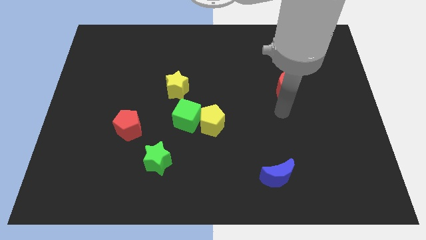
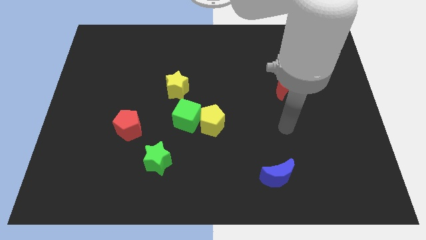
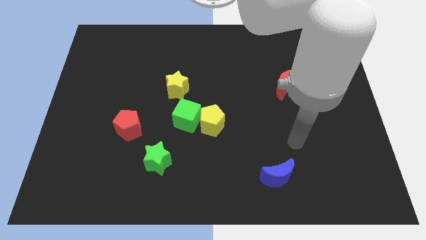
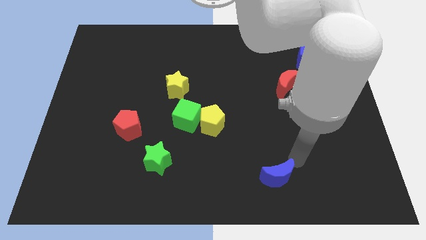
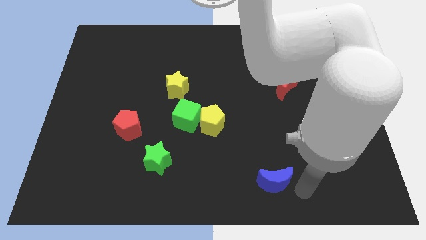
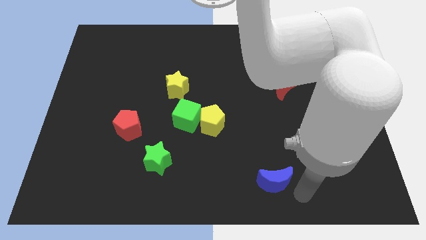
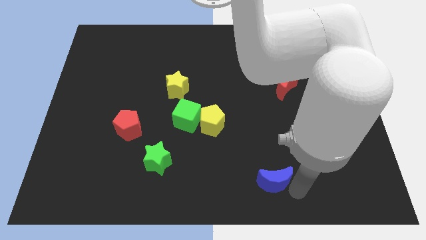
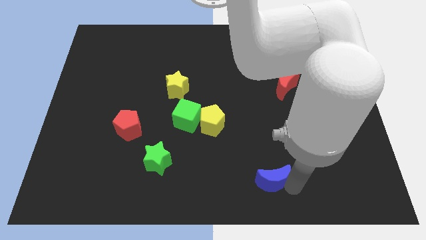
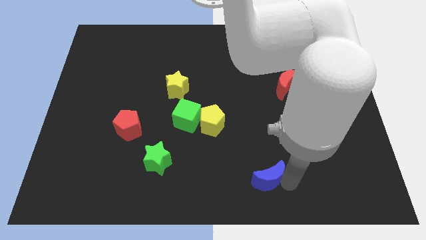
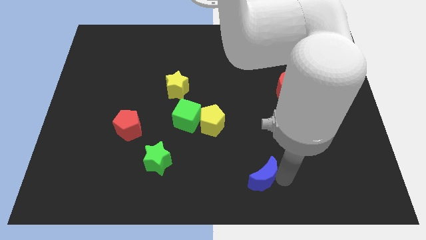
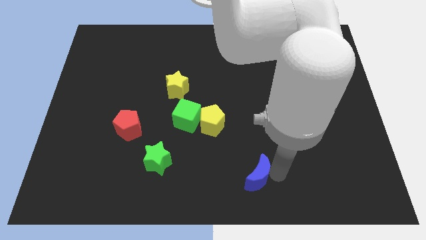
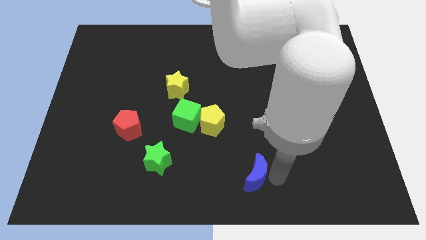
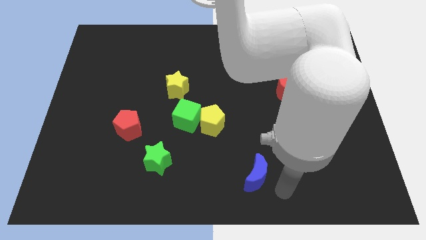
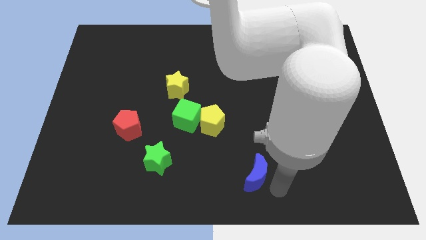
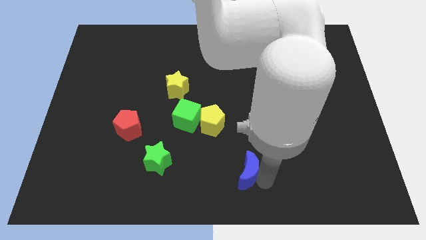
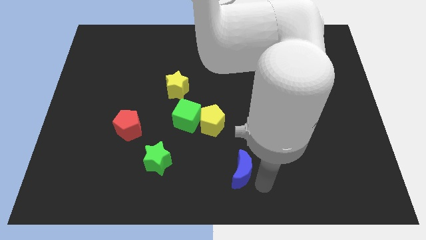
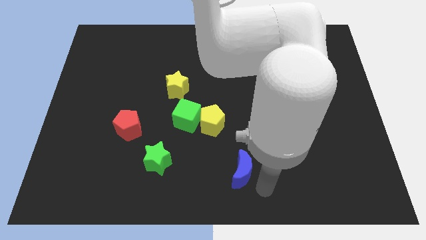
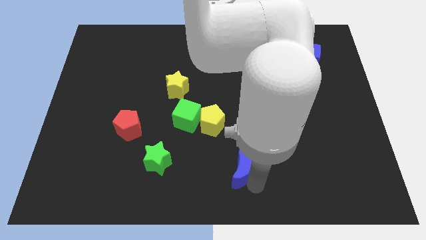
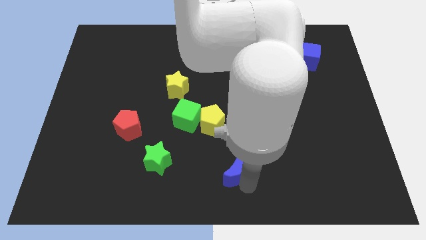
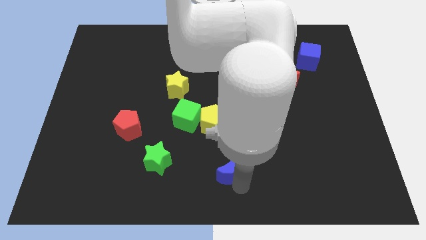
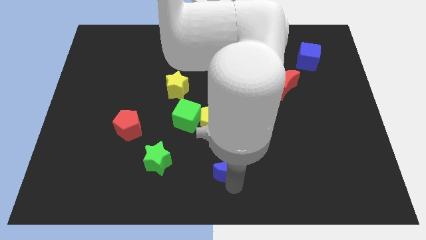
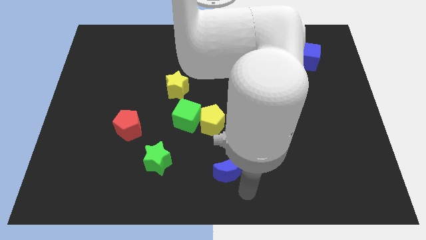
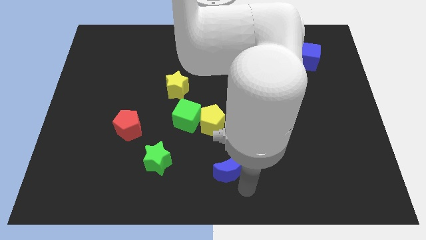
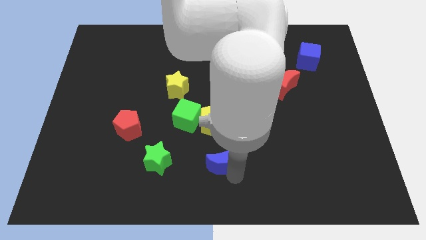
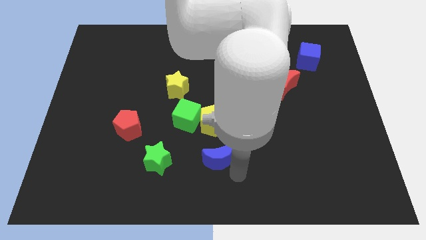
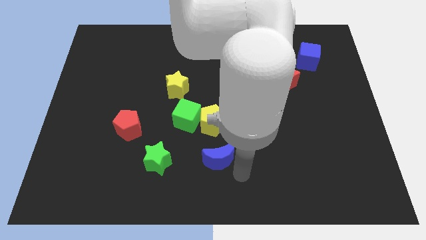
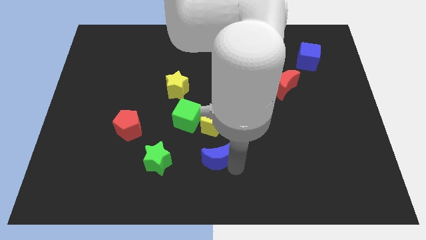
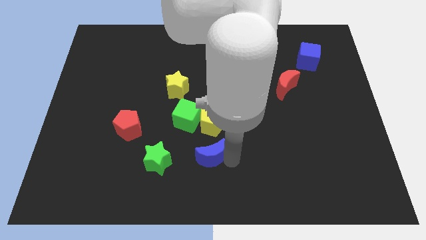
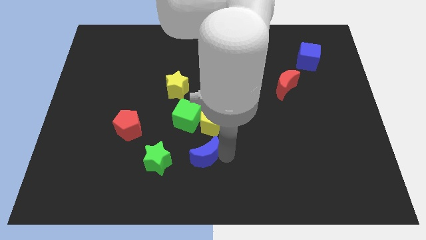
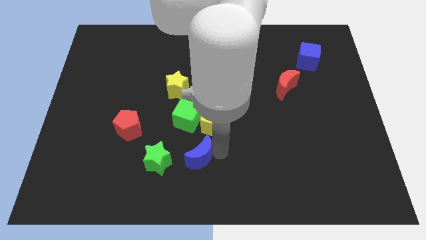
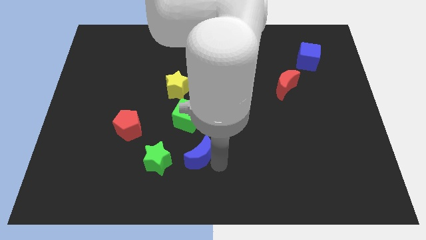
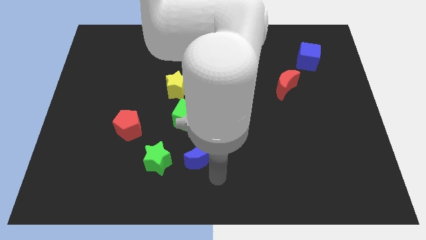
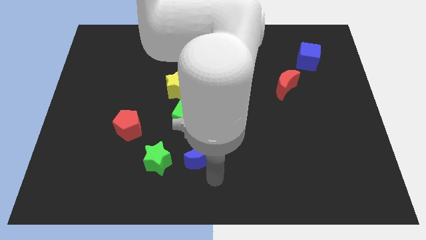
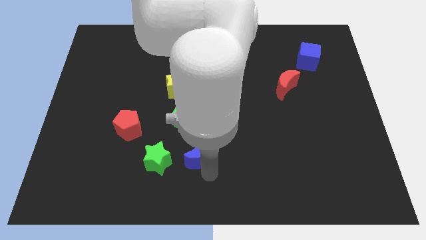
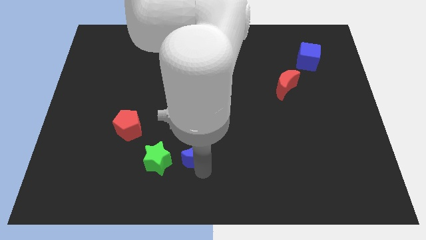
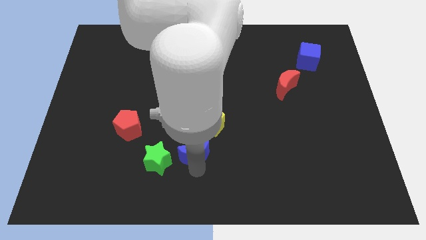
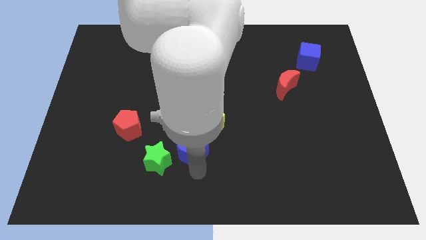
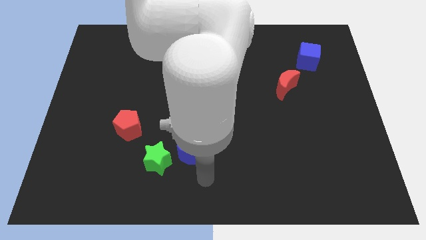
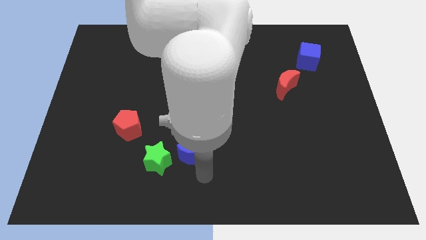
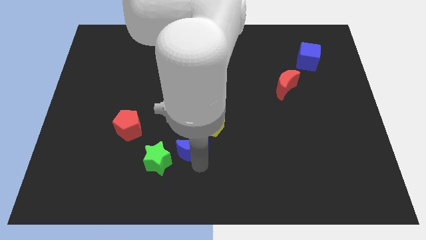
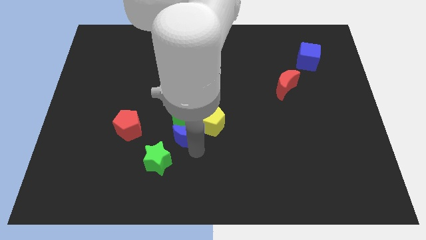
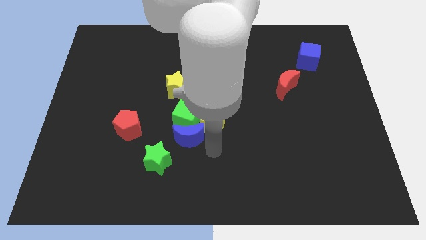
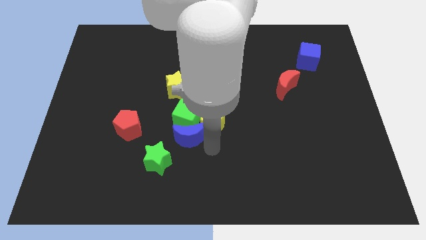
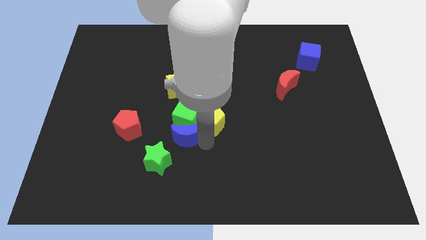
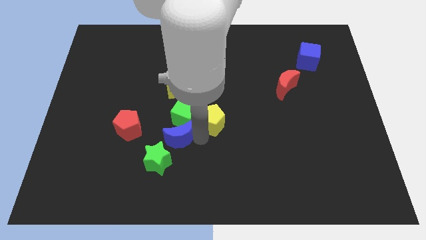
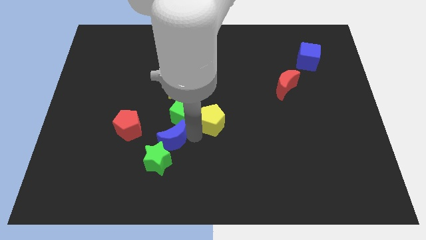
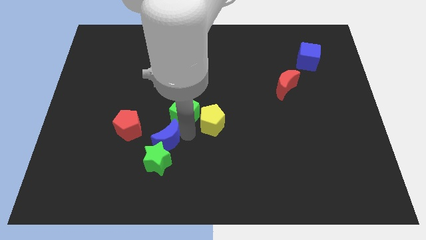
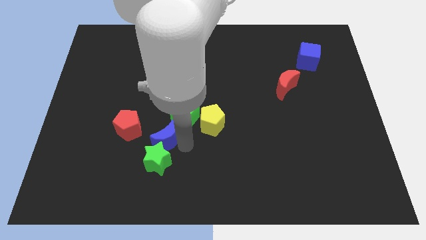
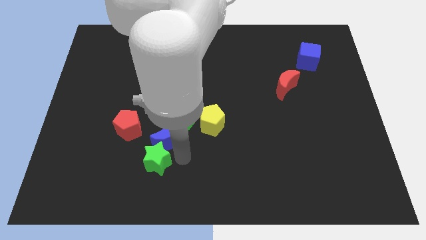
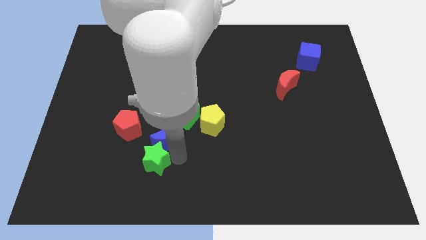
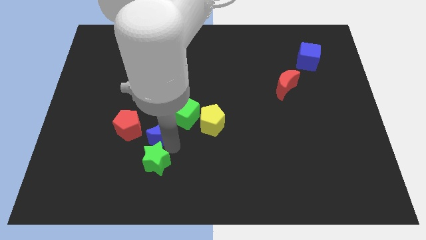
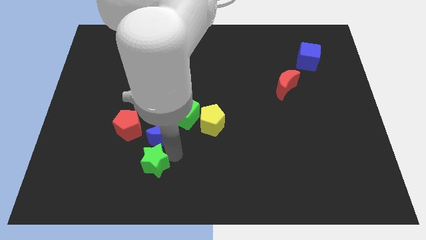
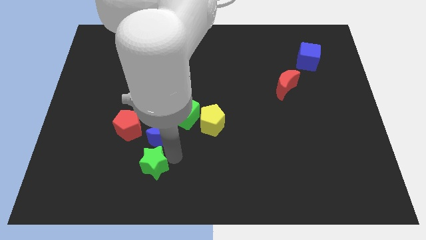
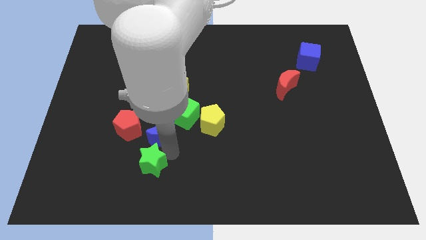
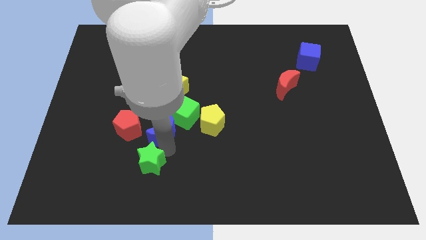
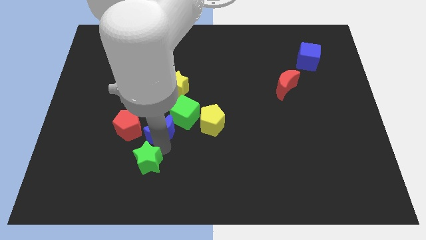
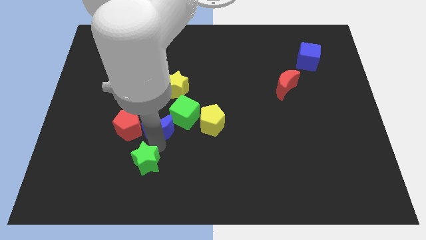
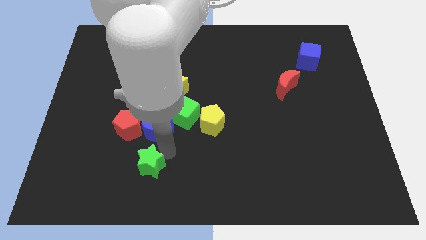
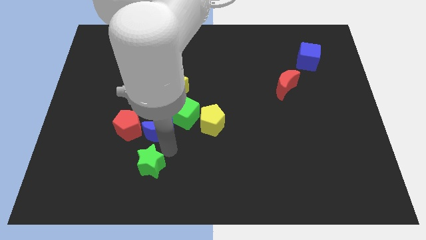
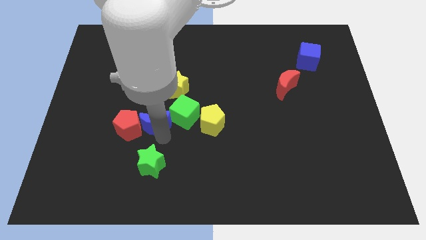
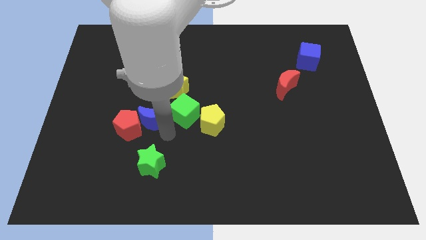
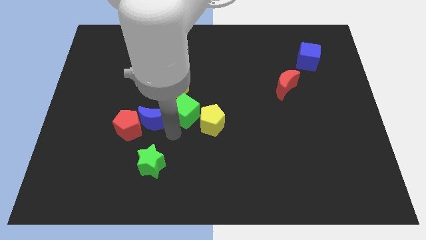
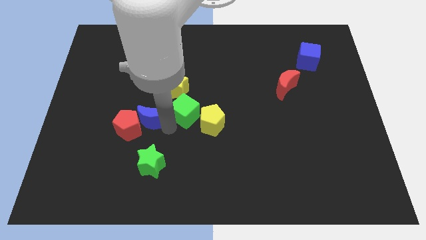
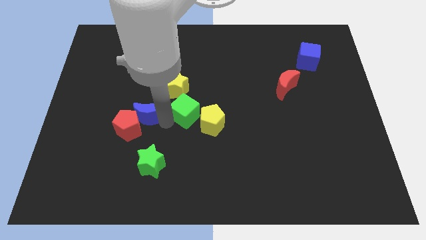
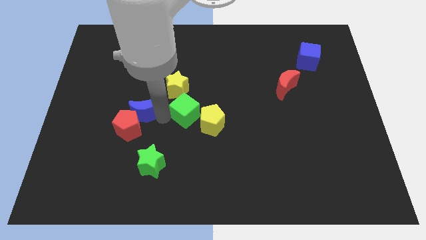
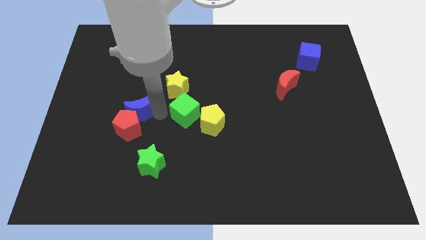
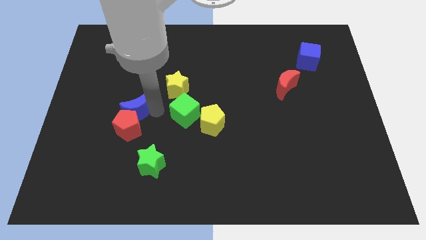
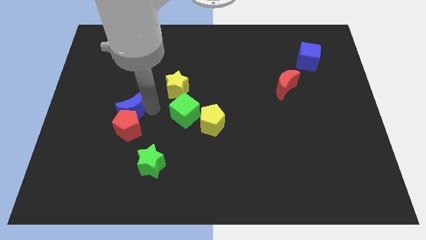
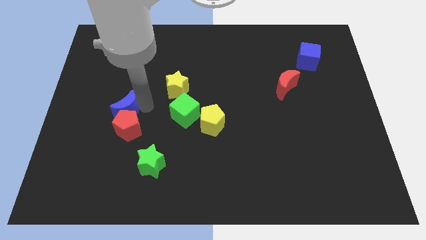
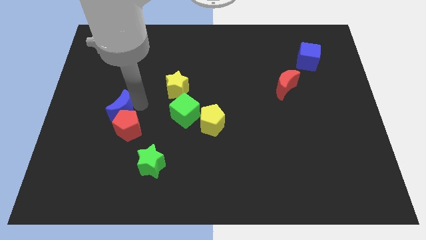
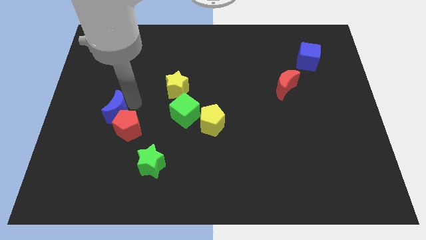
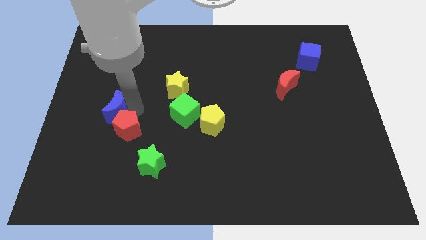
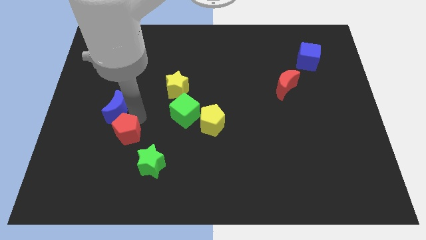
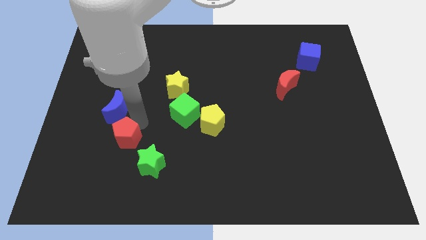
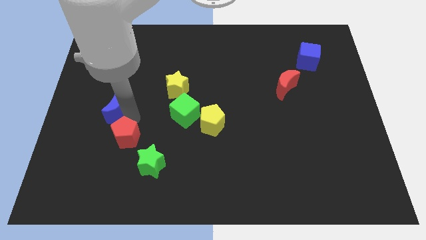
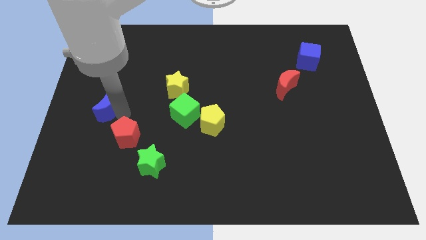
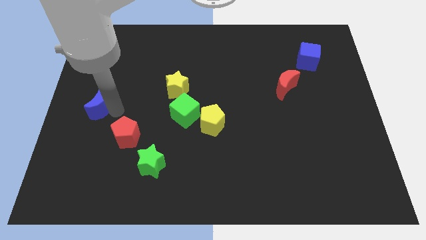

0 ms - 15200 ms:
put the blue moon to the left side
